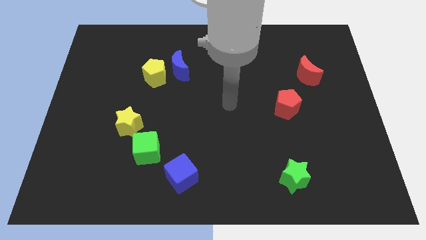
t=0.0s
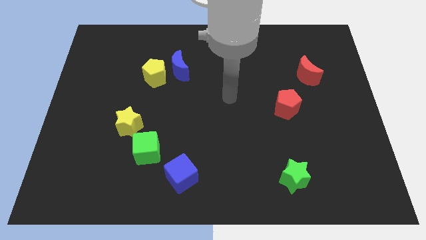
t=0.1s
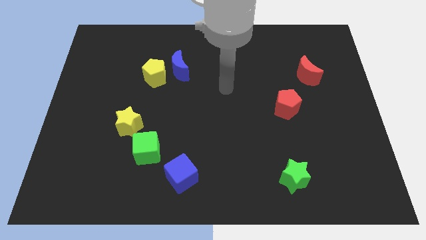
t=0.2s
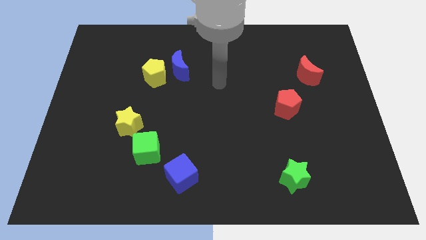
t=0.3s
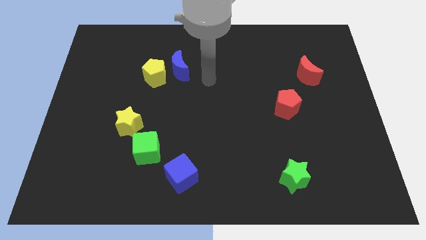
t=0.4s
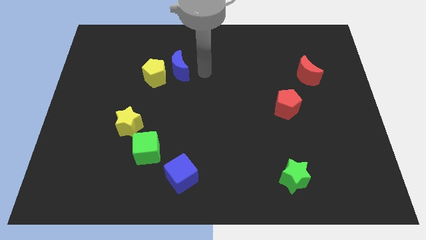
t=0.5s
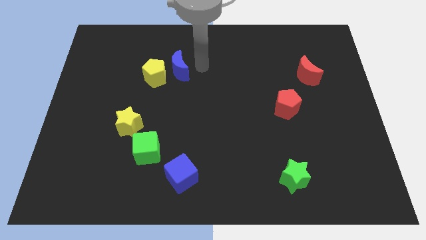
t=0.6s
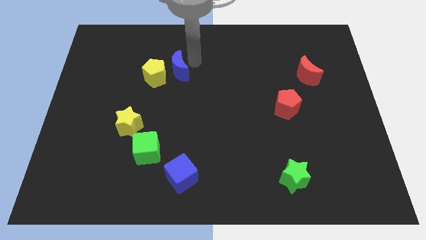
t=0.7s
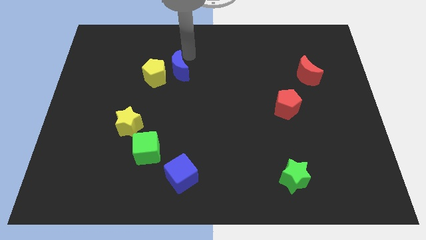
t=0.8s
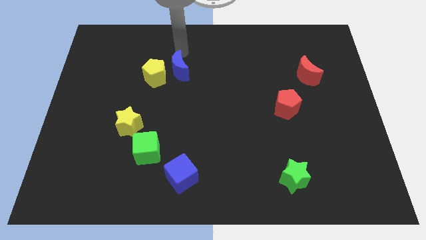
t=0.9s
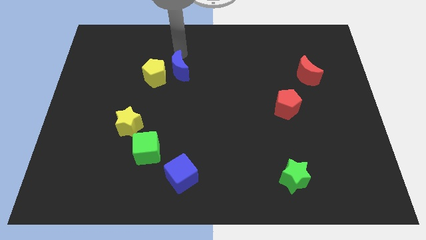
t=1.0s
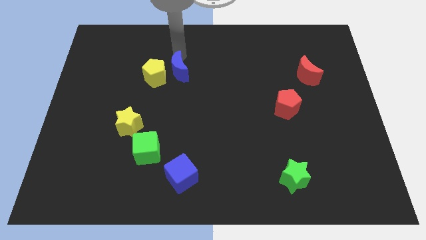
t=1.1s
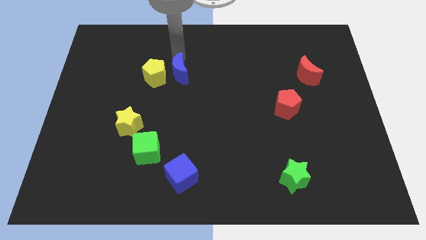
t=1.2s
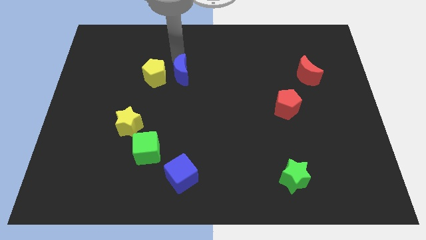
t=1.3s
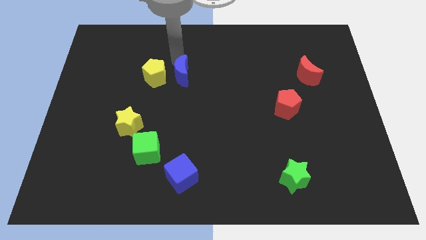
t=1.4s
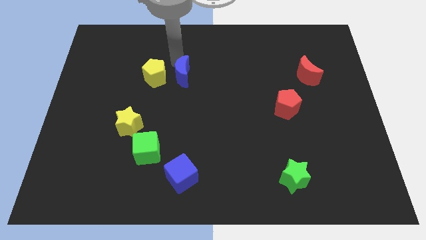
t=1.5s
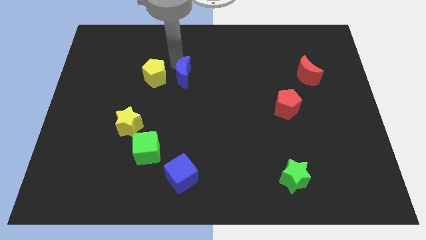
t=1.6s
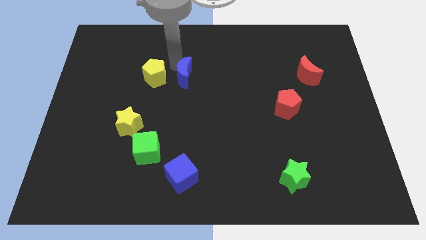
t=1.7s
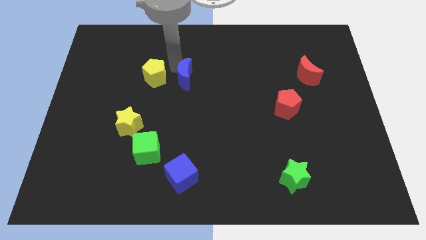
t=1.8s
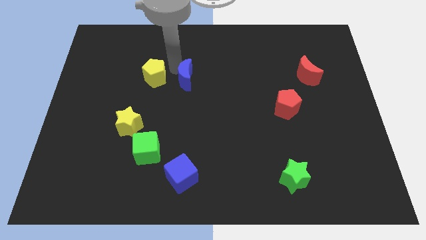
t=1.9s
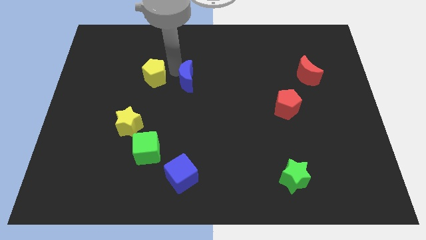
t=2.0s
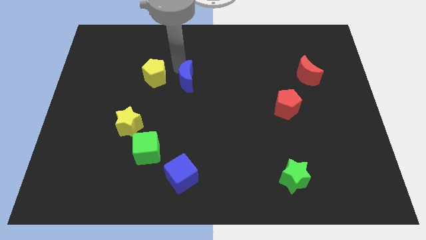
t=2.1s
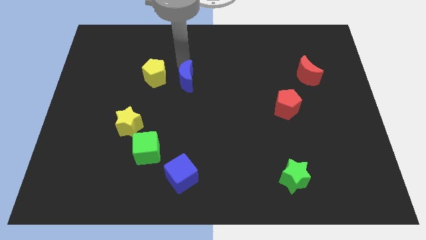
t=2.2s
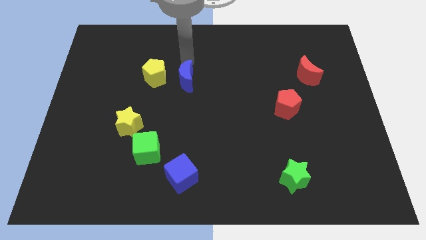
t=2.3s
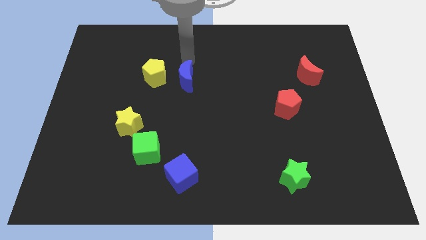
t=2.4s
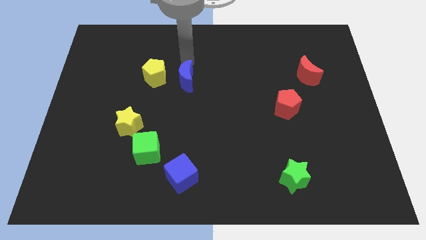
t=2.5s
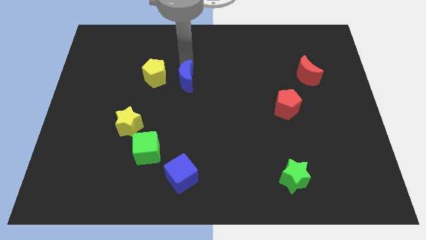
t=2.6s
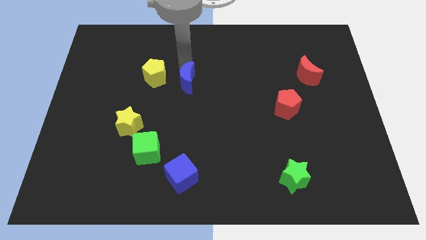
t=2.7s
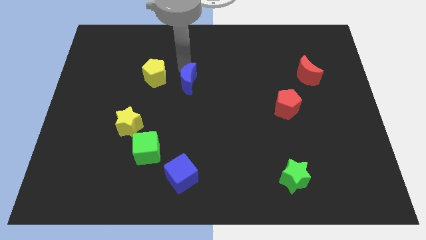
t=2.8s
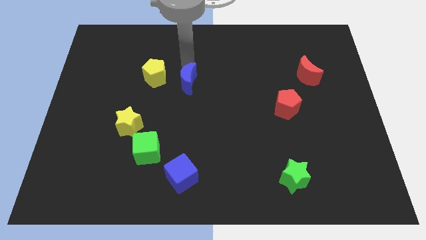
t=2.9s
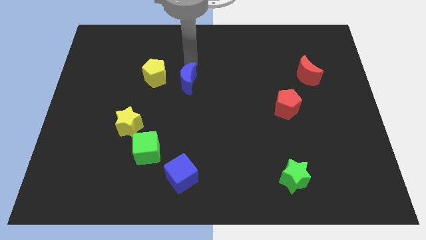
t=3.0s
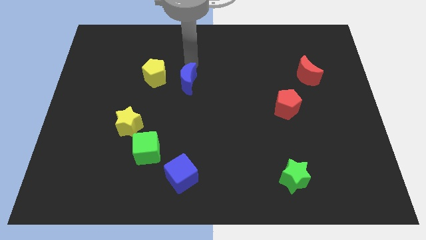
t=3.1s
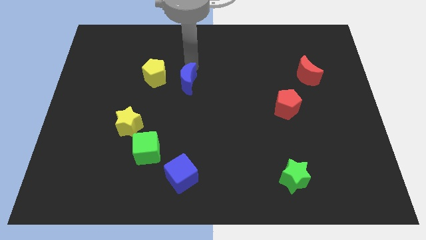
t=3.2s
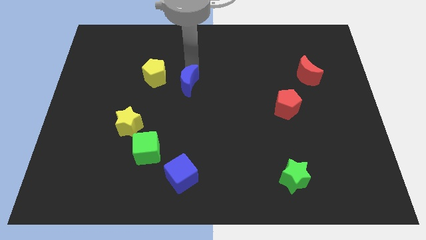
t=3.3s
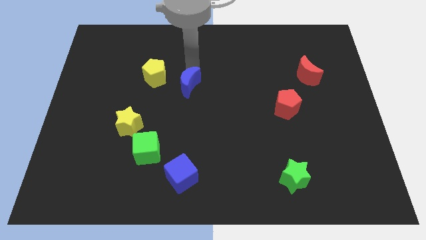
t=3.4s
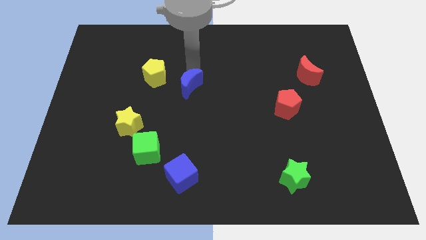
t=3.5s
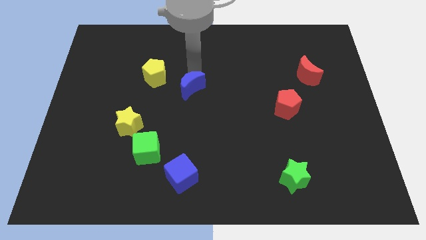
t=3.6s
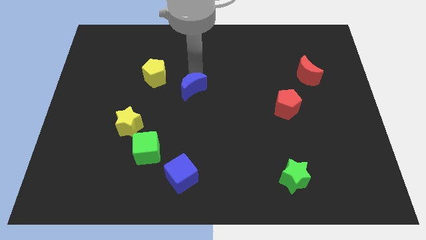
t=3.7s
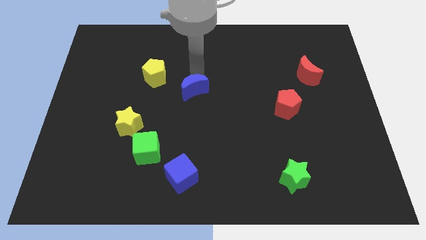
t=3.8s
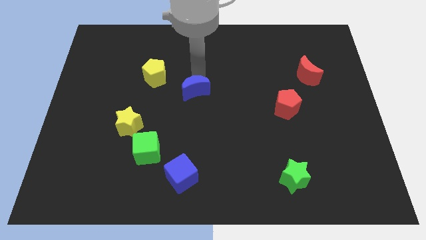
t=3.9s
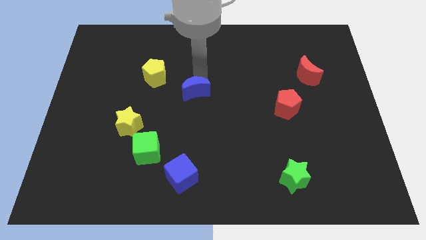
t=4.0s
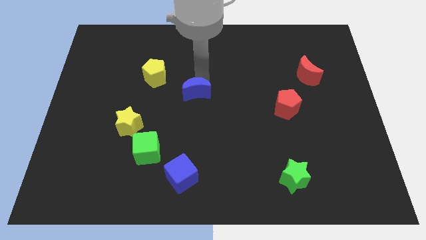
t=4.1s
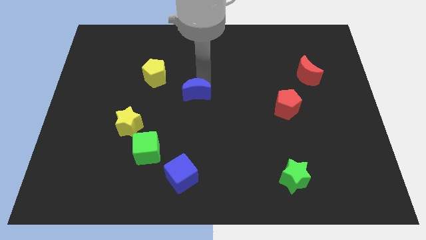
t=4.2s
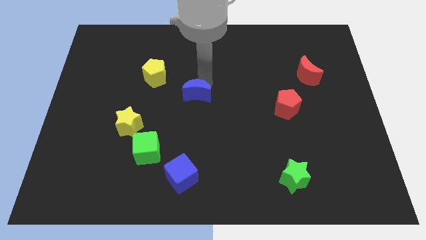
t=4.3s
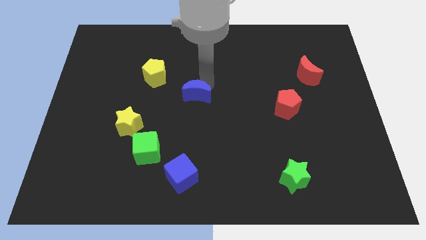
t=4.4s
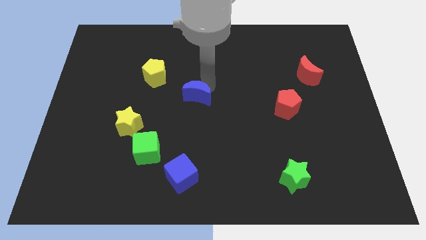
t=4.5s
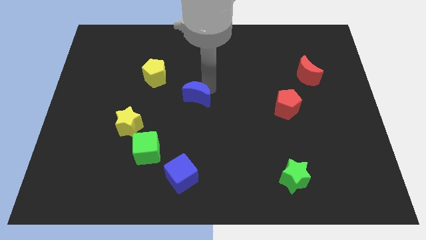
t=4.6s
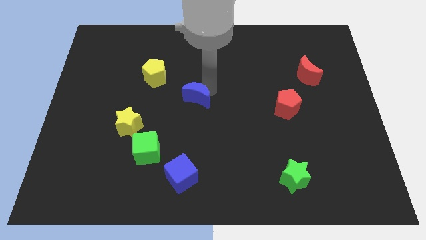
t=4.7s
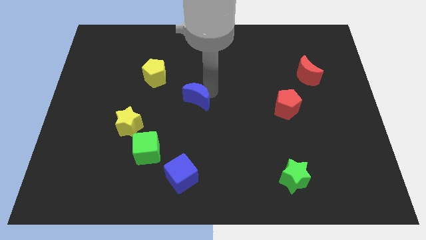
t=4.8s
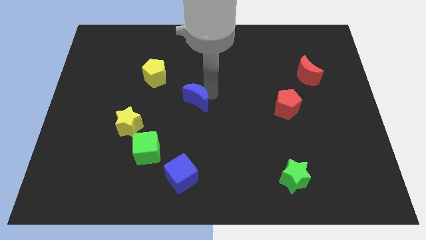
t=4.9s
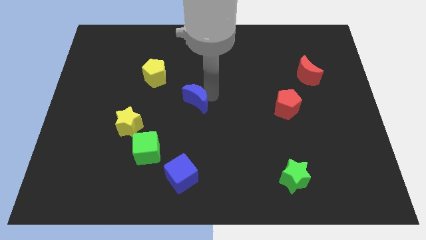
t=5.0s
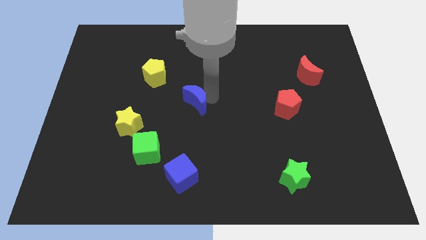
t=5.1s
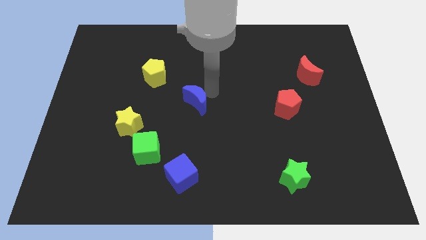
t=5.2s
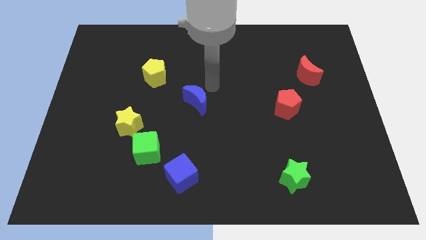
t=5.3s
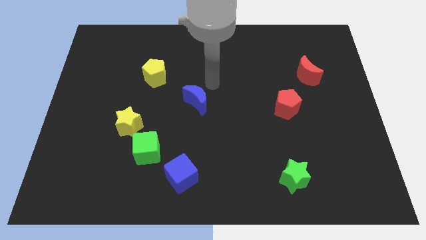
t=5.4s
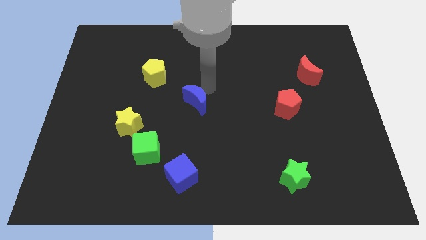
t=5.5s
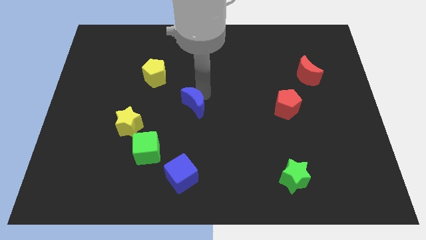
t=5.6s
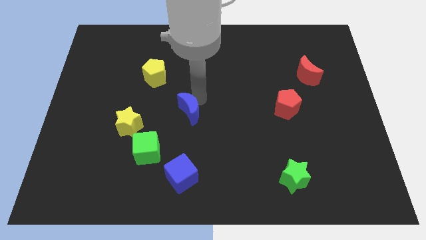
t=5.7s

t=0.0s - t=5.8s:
put the blue moon to the right of the yellow star

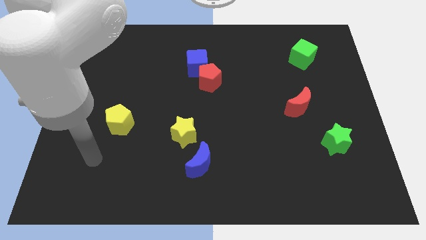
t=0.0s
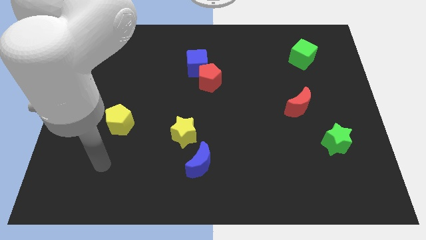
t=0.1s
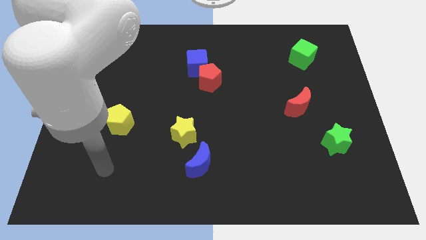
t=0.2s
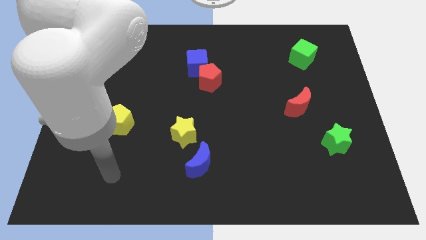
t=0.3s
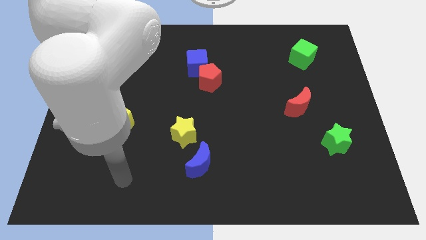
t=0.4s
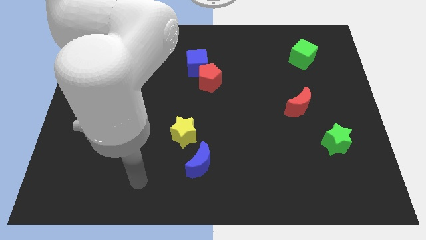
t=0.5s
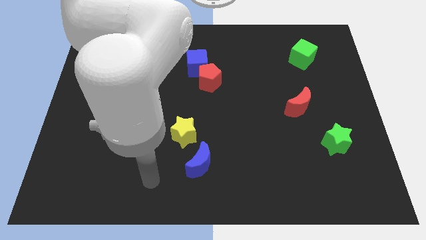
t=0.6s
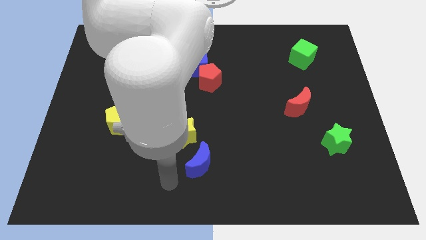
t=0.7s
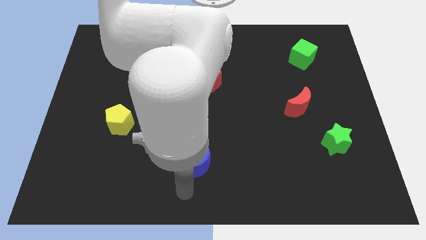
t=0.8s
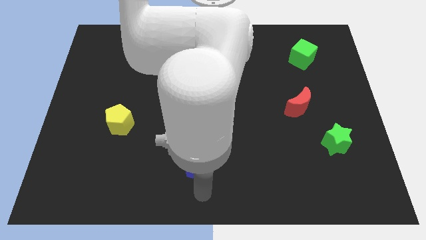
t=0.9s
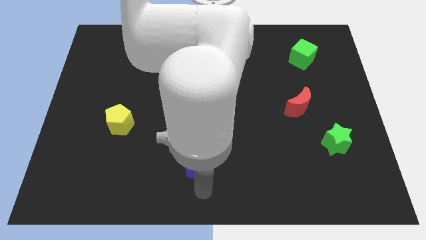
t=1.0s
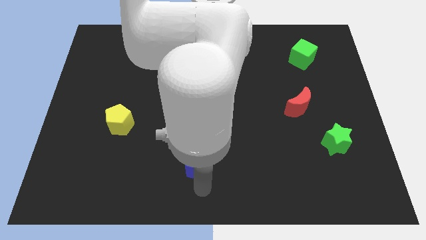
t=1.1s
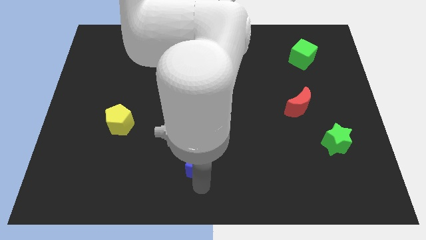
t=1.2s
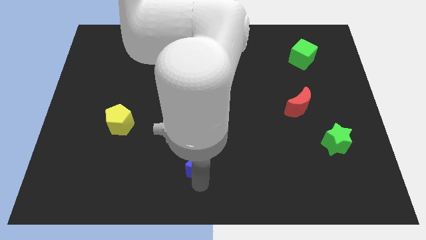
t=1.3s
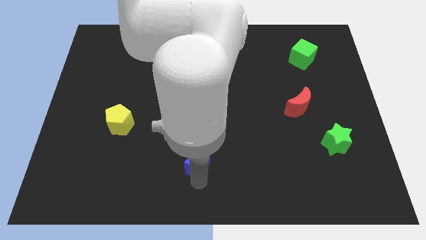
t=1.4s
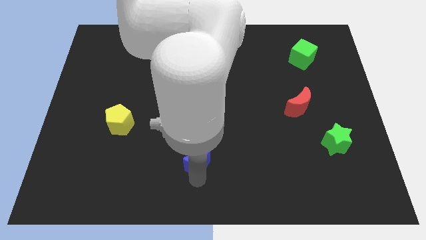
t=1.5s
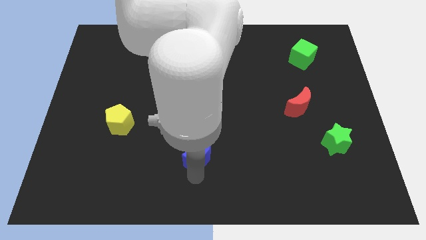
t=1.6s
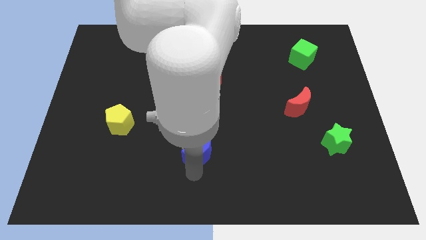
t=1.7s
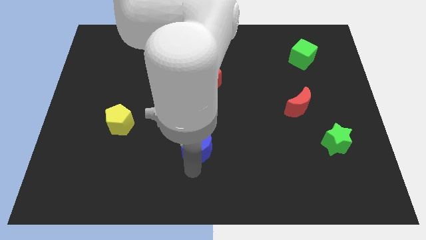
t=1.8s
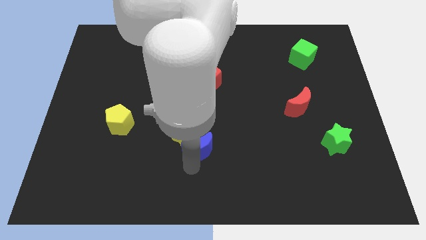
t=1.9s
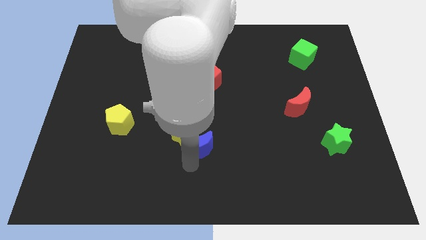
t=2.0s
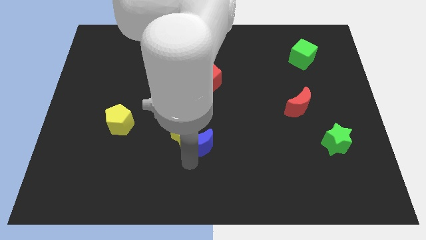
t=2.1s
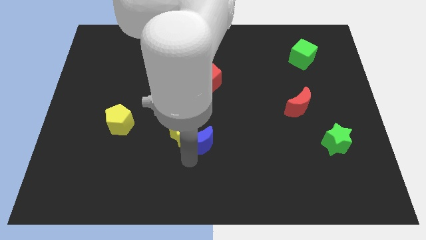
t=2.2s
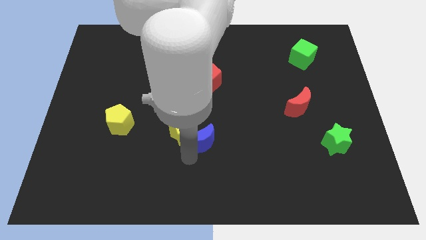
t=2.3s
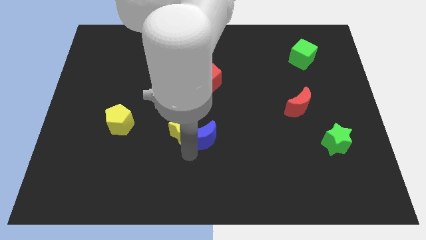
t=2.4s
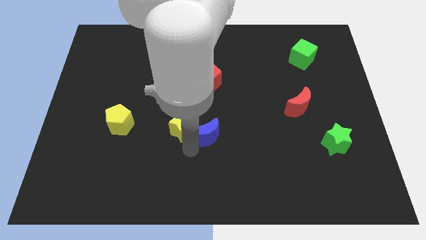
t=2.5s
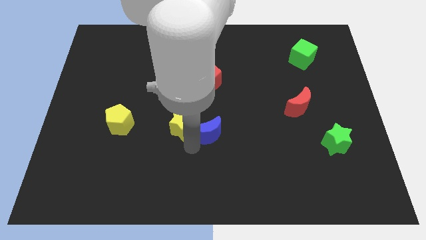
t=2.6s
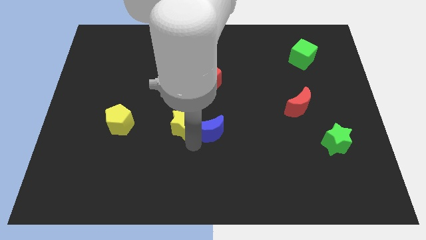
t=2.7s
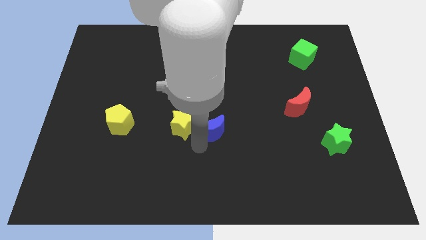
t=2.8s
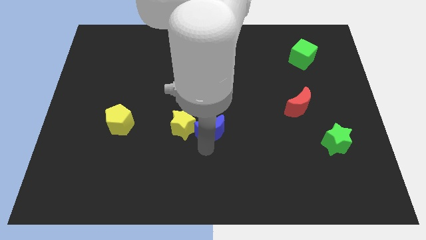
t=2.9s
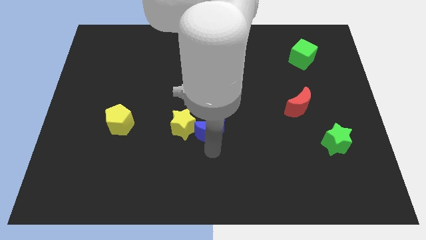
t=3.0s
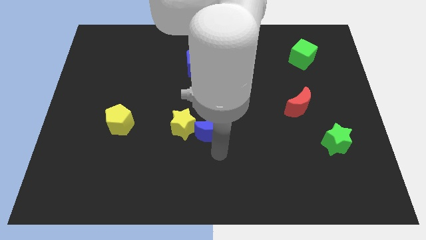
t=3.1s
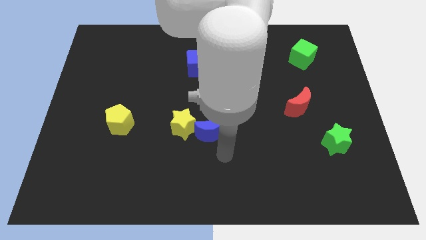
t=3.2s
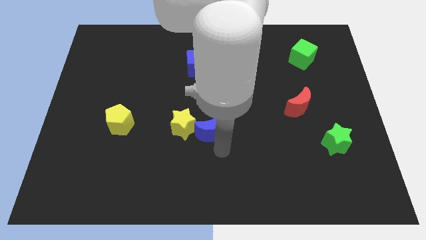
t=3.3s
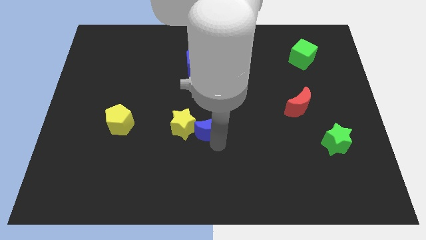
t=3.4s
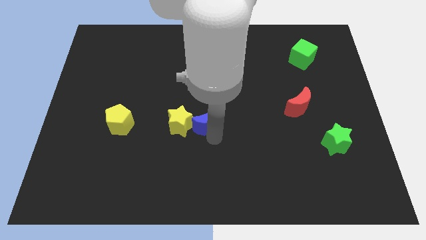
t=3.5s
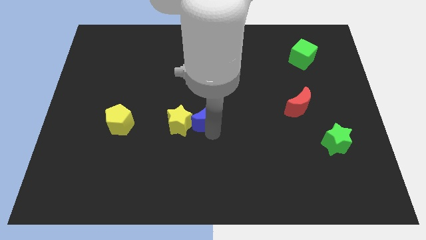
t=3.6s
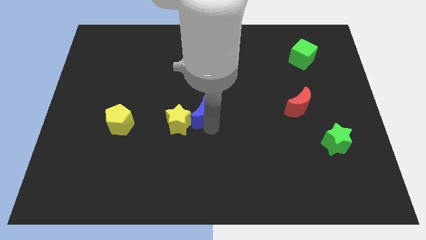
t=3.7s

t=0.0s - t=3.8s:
put the blue moon to the bottom side of the blue cube
